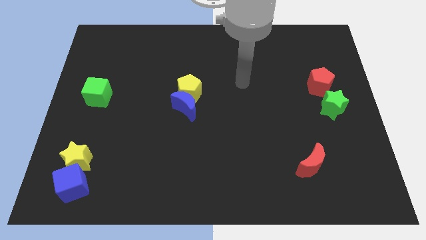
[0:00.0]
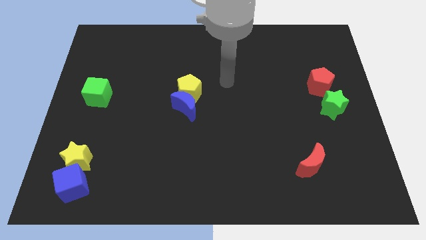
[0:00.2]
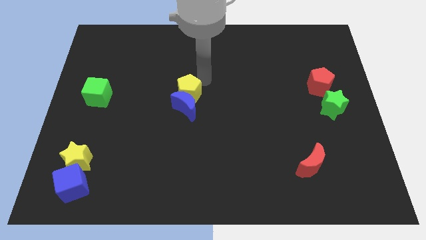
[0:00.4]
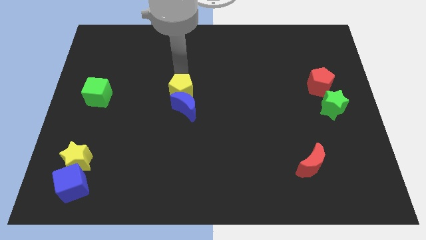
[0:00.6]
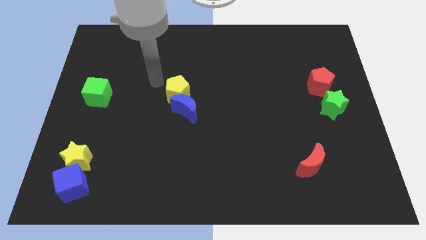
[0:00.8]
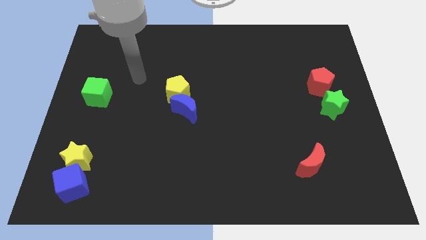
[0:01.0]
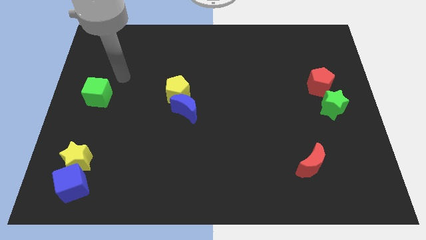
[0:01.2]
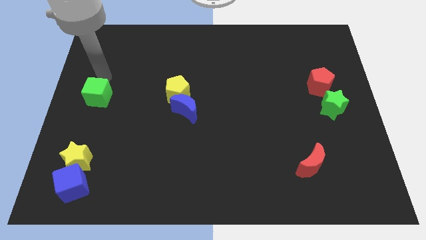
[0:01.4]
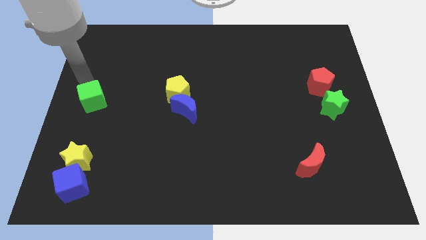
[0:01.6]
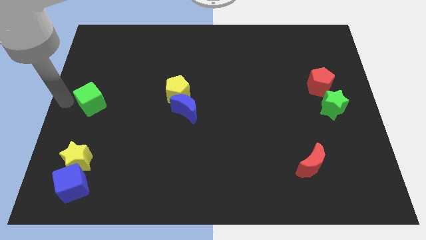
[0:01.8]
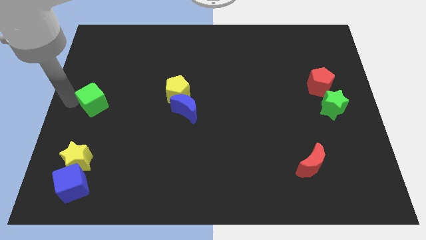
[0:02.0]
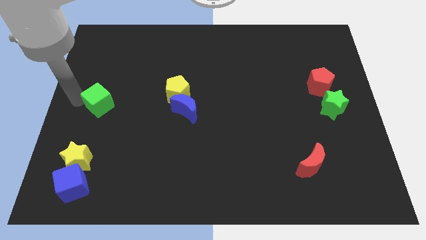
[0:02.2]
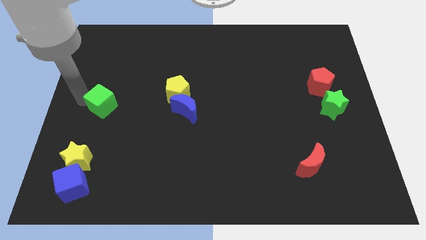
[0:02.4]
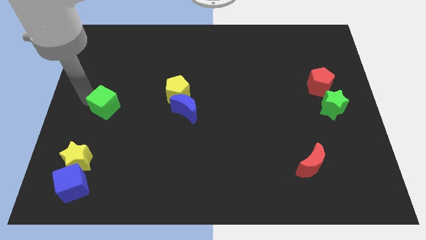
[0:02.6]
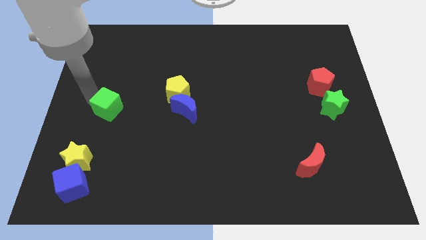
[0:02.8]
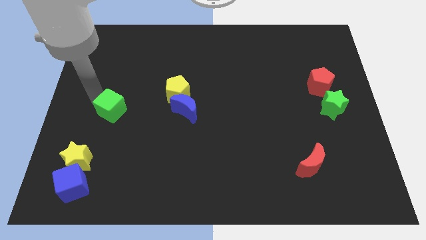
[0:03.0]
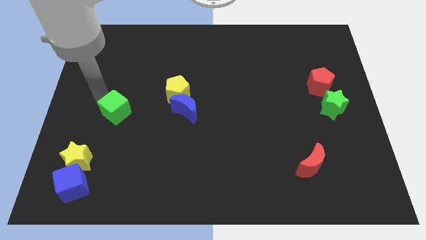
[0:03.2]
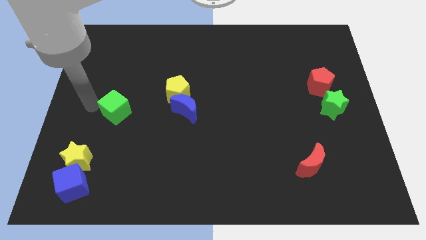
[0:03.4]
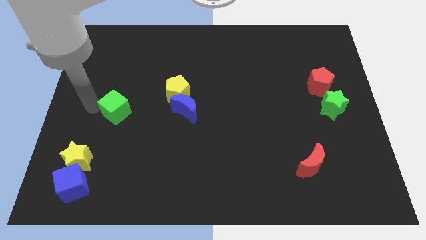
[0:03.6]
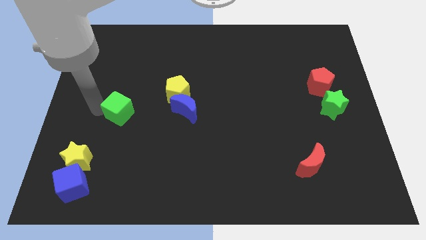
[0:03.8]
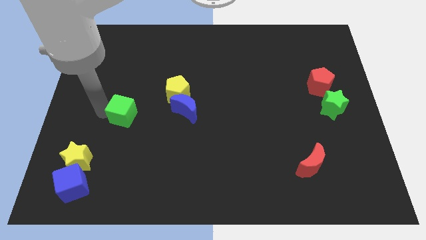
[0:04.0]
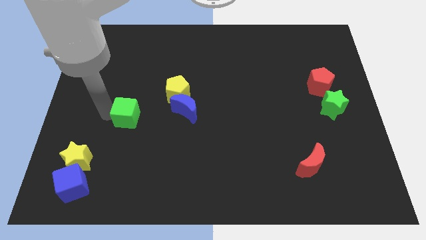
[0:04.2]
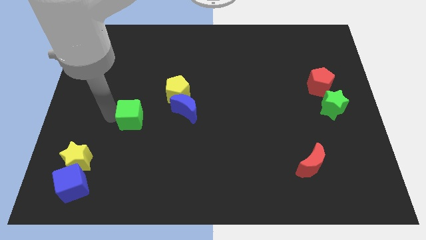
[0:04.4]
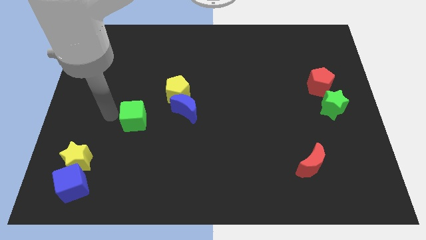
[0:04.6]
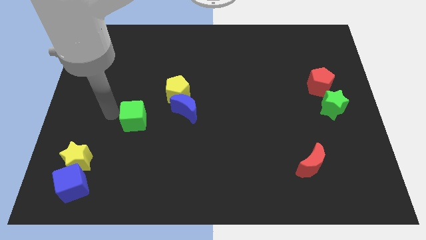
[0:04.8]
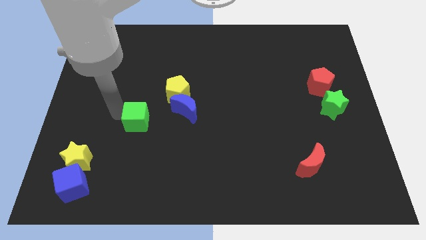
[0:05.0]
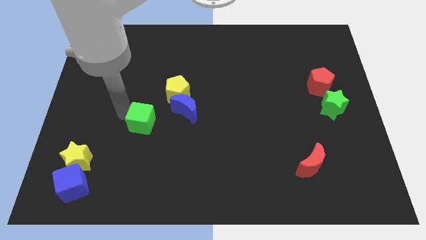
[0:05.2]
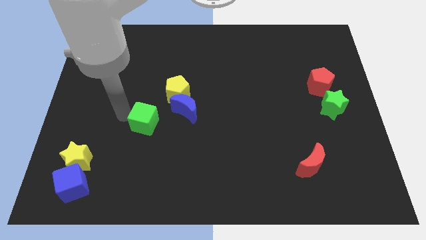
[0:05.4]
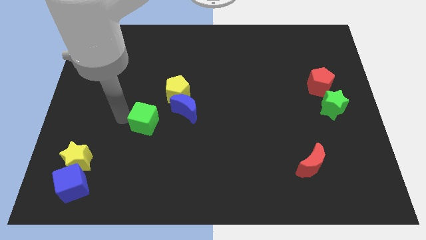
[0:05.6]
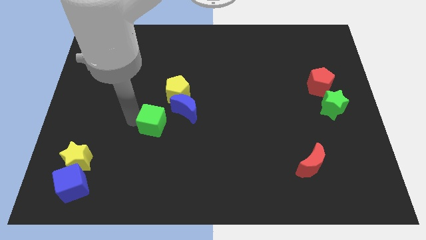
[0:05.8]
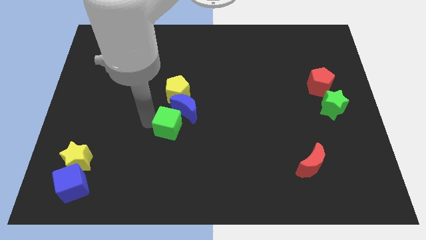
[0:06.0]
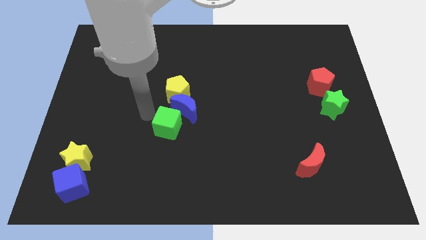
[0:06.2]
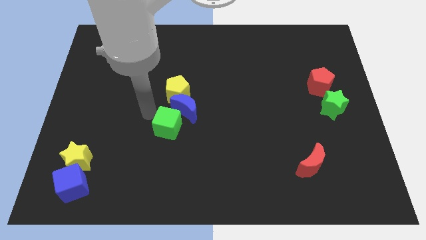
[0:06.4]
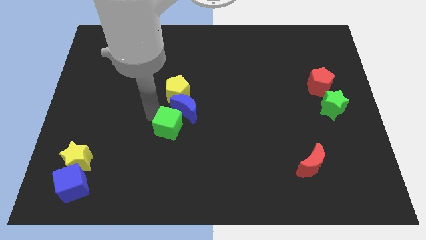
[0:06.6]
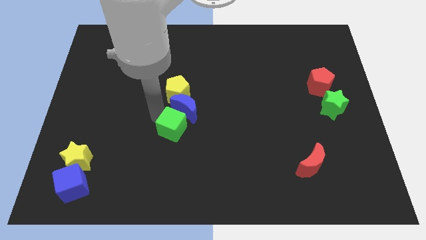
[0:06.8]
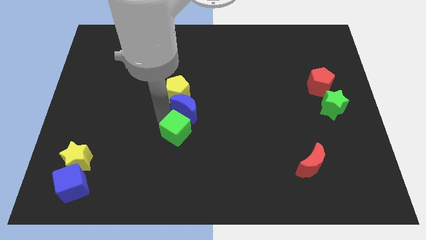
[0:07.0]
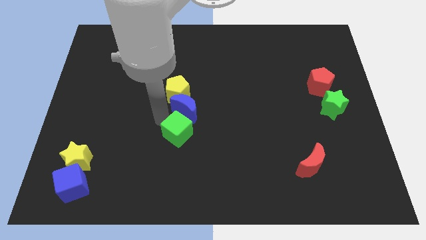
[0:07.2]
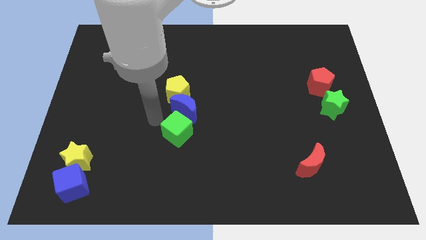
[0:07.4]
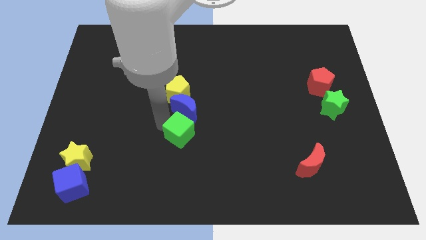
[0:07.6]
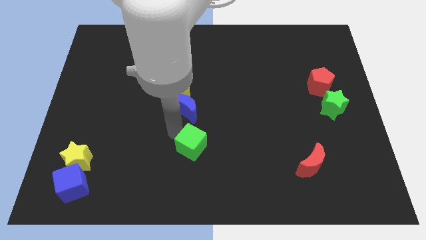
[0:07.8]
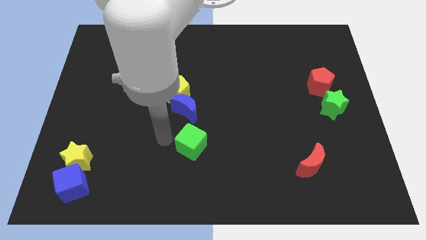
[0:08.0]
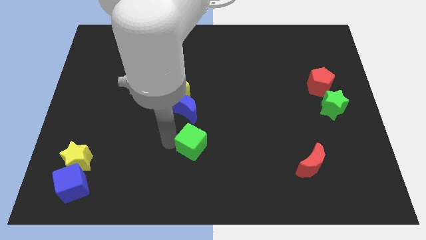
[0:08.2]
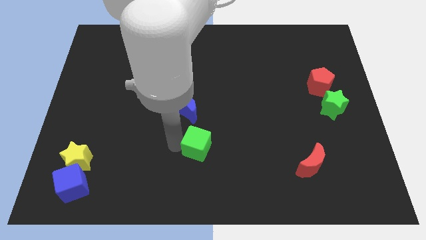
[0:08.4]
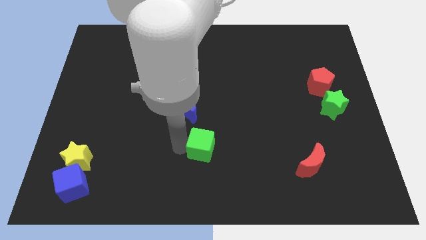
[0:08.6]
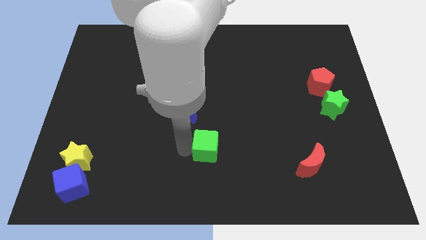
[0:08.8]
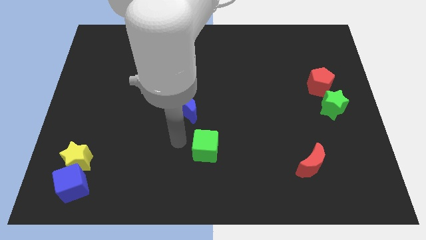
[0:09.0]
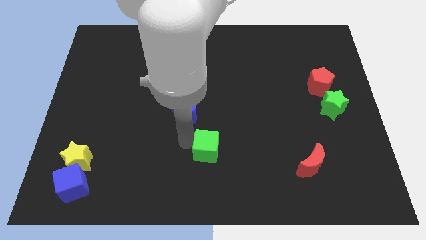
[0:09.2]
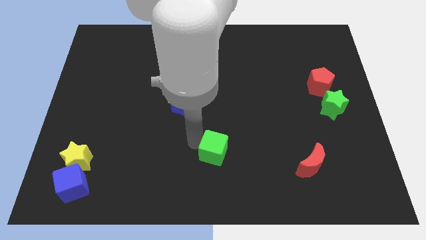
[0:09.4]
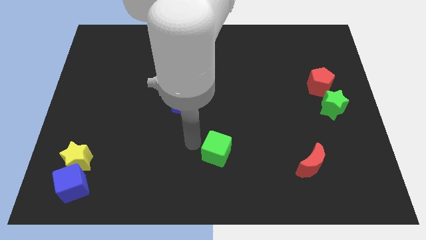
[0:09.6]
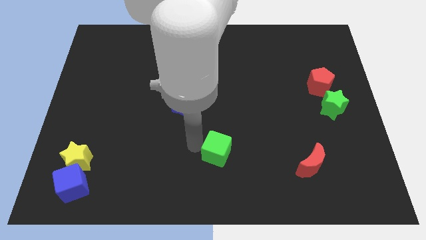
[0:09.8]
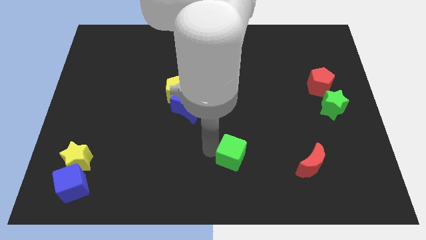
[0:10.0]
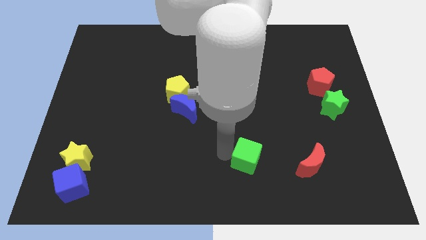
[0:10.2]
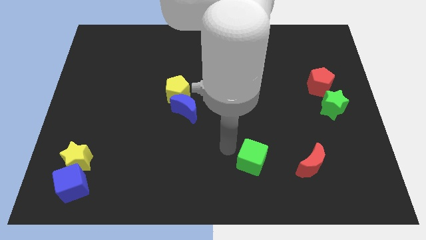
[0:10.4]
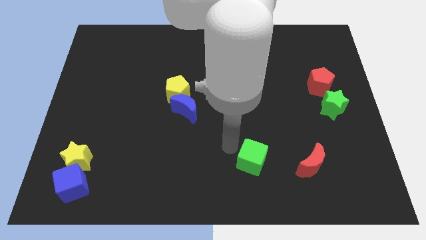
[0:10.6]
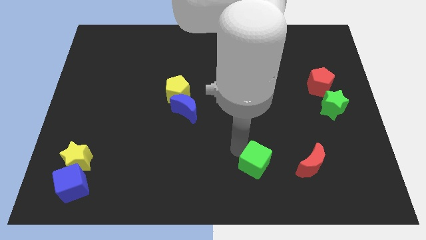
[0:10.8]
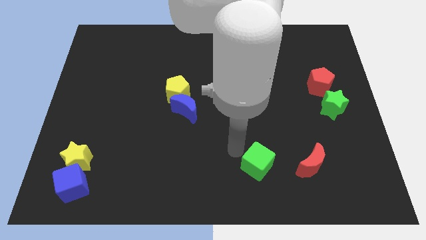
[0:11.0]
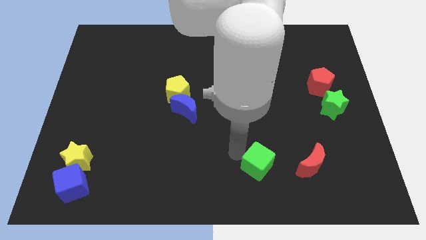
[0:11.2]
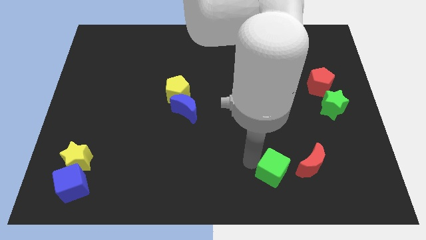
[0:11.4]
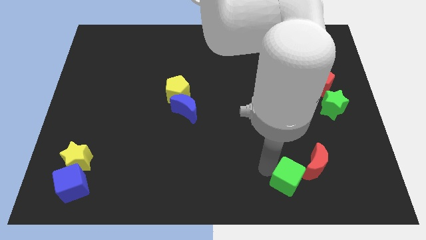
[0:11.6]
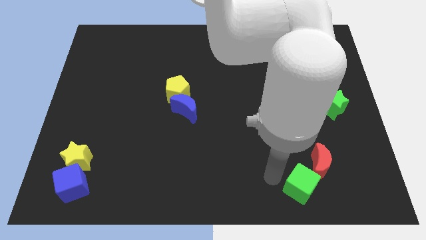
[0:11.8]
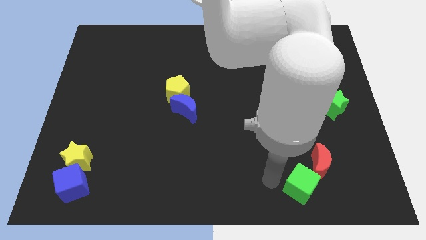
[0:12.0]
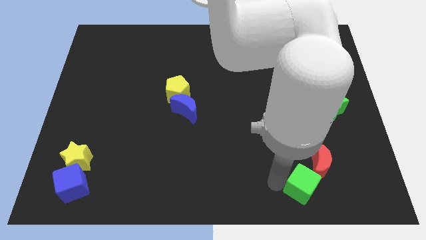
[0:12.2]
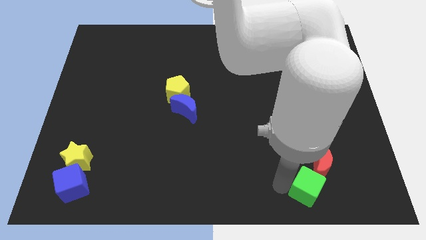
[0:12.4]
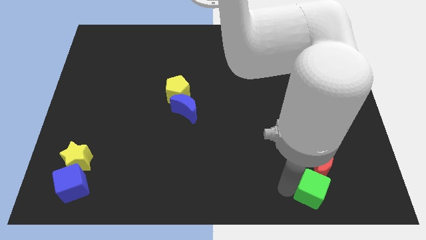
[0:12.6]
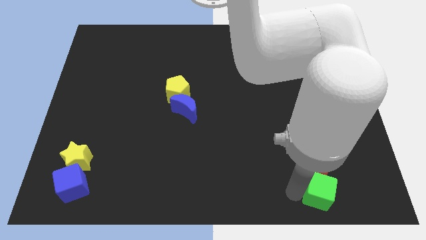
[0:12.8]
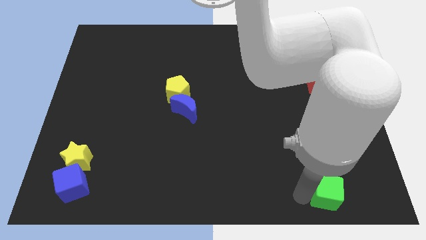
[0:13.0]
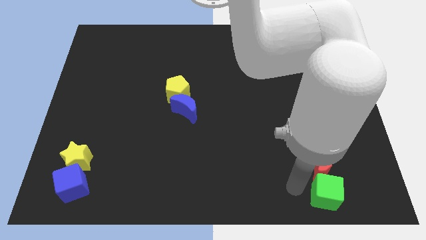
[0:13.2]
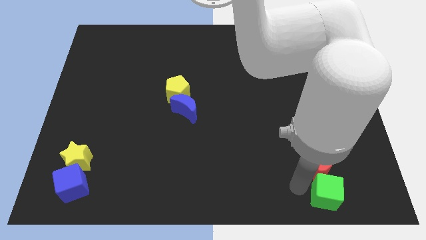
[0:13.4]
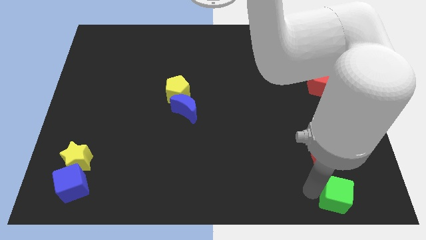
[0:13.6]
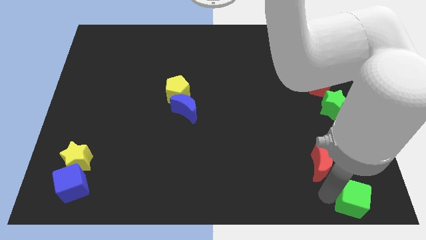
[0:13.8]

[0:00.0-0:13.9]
put the green cube to the lower right corner
